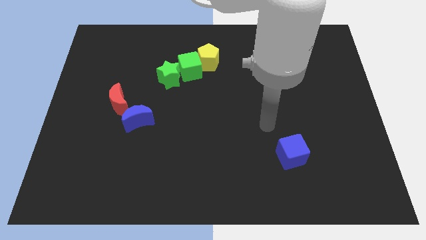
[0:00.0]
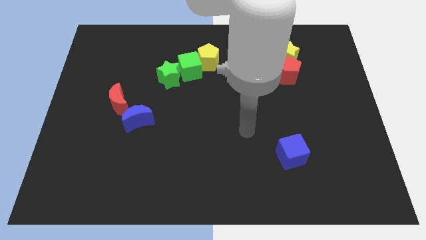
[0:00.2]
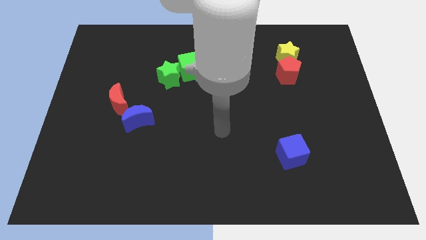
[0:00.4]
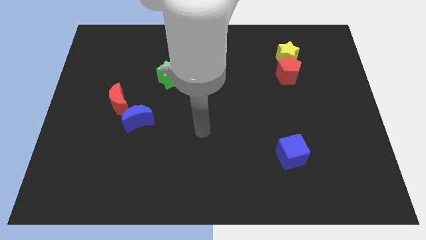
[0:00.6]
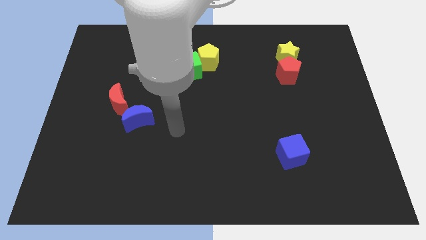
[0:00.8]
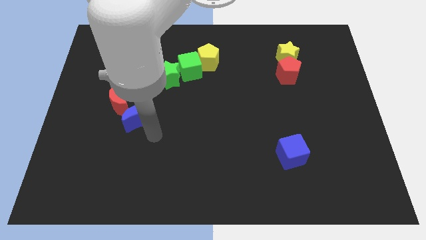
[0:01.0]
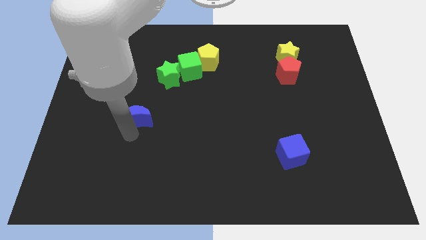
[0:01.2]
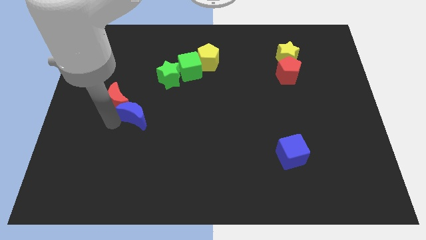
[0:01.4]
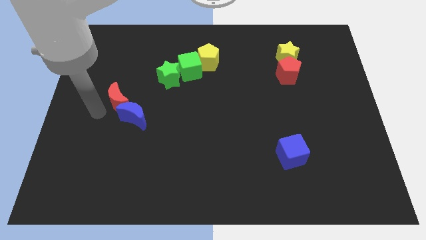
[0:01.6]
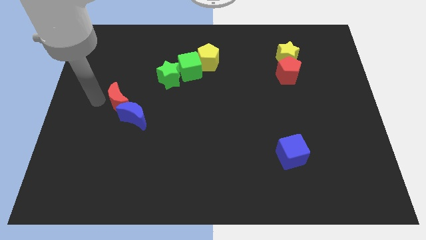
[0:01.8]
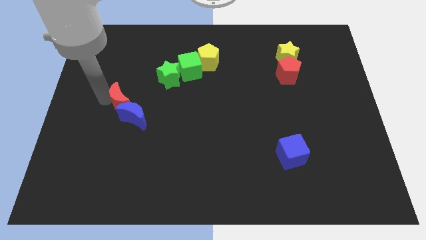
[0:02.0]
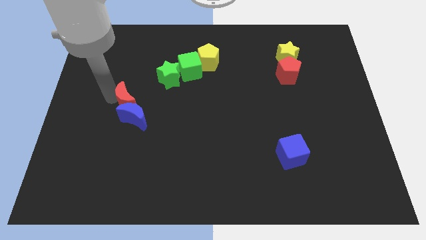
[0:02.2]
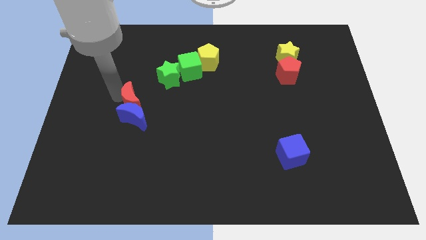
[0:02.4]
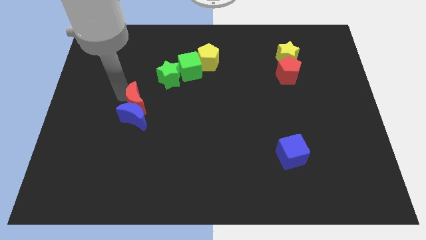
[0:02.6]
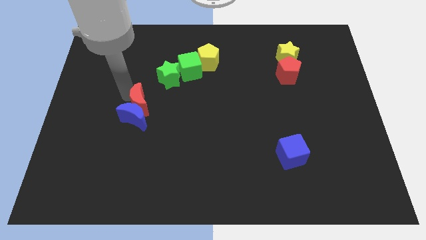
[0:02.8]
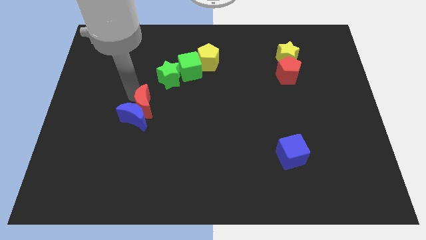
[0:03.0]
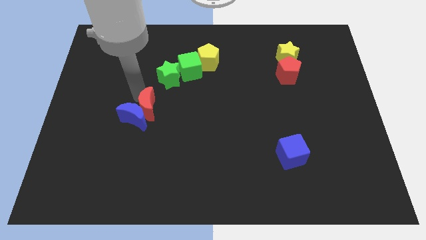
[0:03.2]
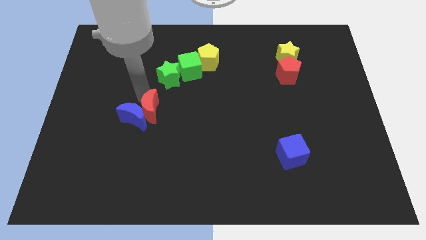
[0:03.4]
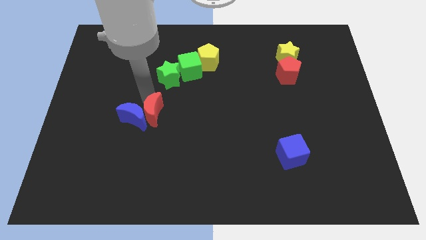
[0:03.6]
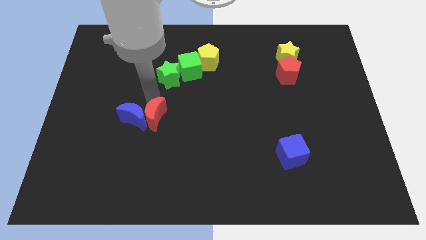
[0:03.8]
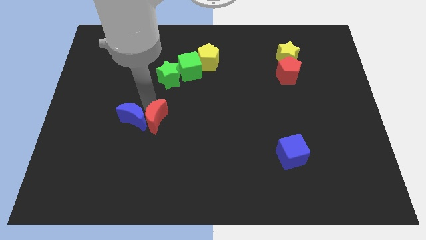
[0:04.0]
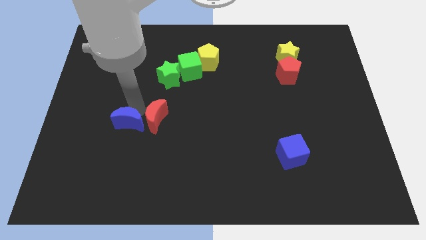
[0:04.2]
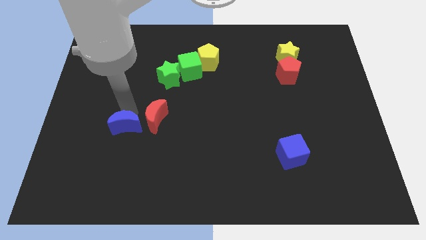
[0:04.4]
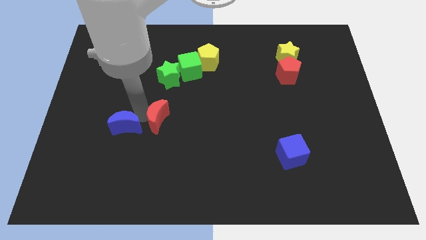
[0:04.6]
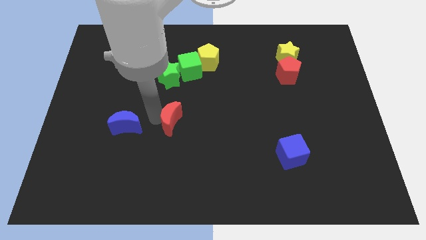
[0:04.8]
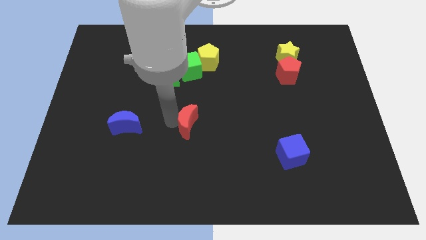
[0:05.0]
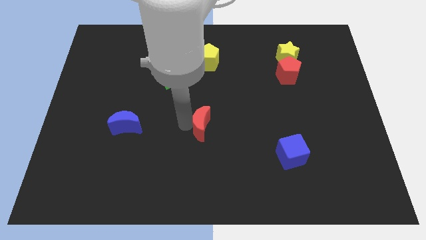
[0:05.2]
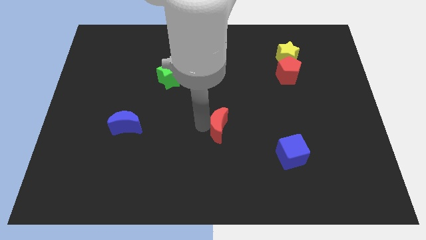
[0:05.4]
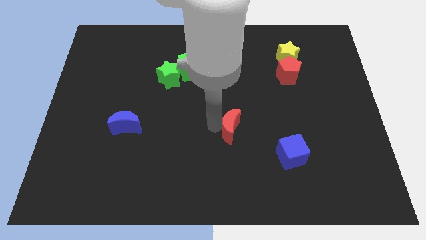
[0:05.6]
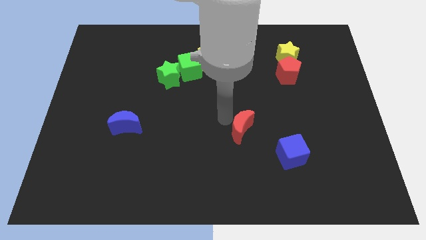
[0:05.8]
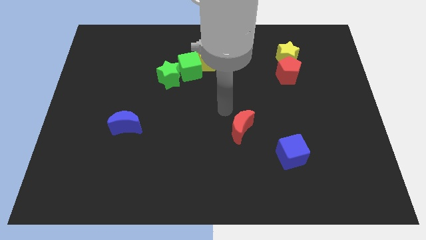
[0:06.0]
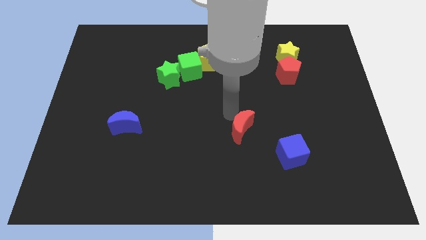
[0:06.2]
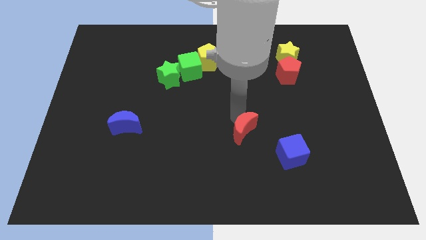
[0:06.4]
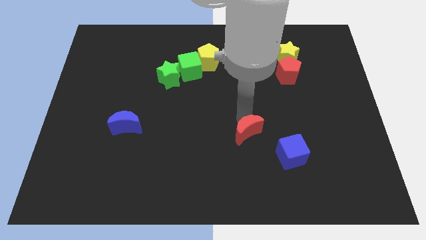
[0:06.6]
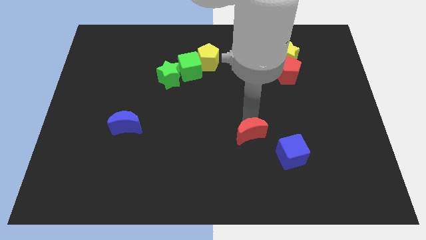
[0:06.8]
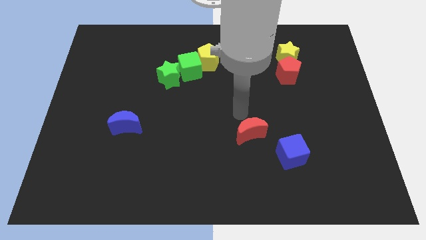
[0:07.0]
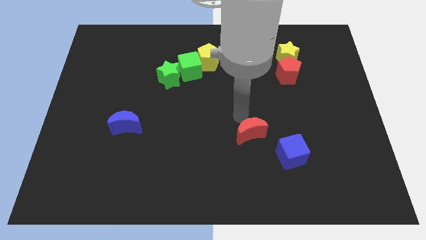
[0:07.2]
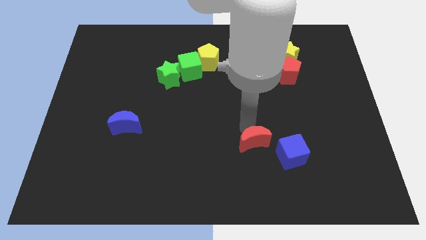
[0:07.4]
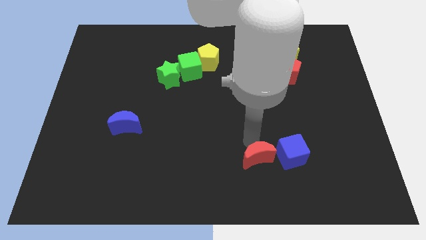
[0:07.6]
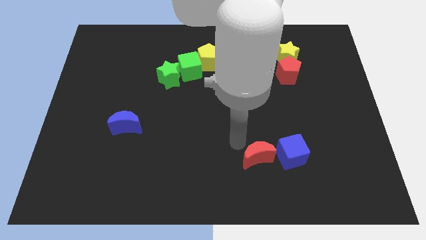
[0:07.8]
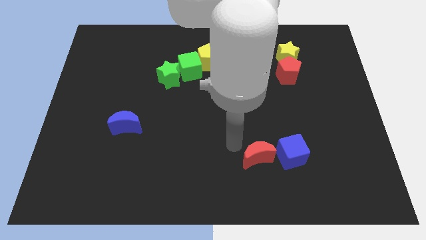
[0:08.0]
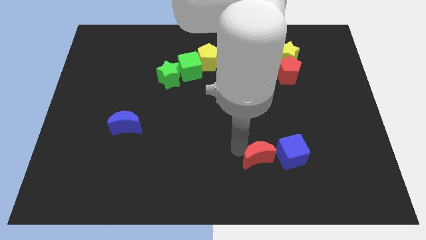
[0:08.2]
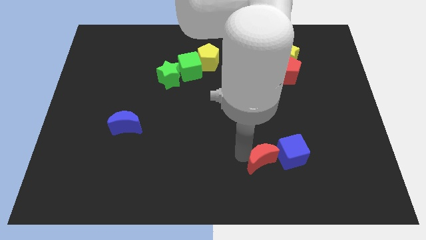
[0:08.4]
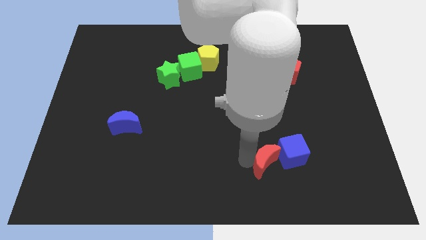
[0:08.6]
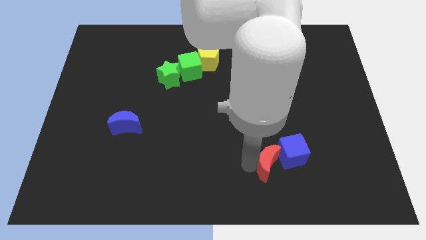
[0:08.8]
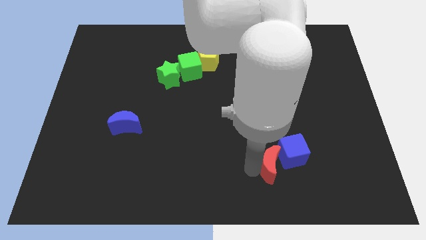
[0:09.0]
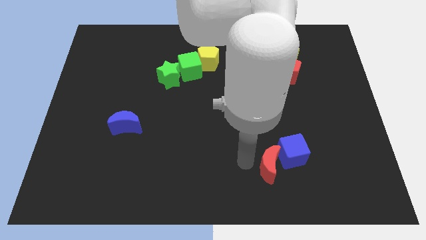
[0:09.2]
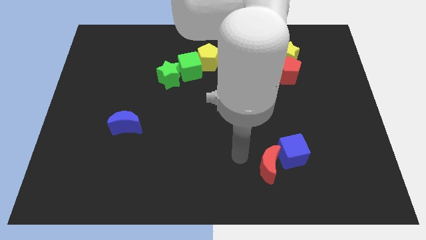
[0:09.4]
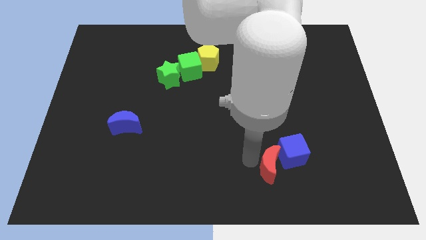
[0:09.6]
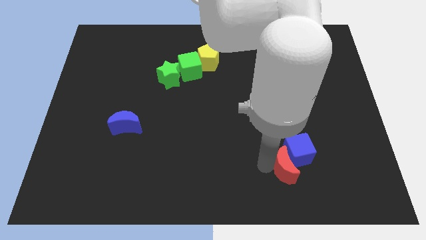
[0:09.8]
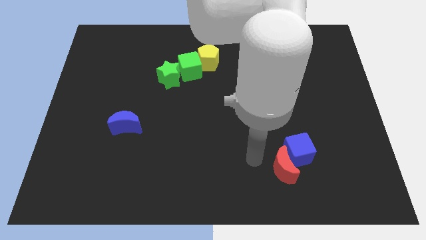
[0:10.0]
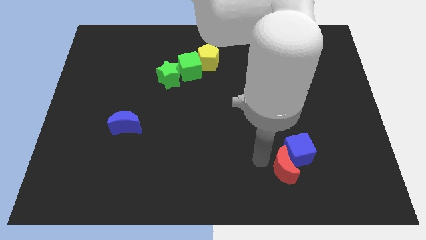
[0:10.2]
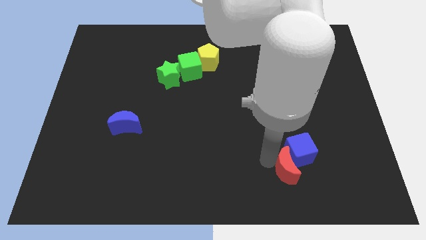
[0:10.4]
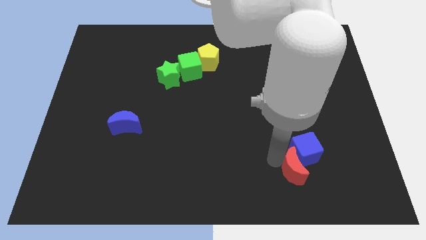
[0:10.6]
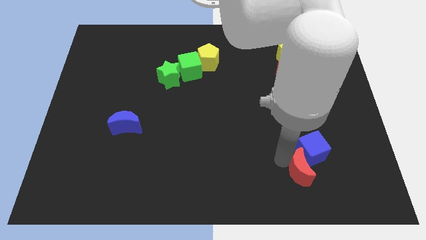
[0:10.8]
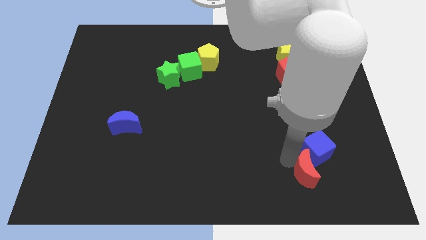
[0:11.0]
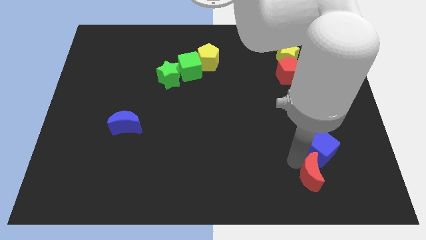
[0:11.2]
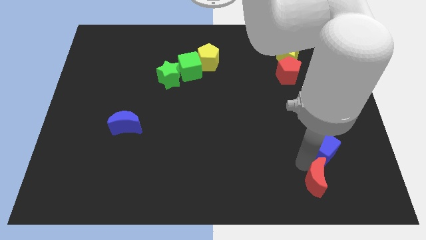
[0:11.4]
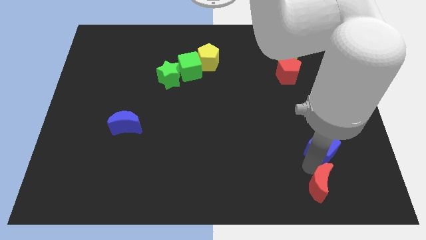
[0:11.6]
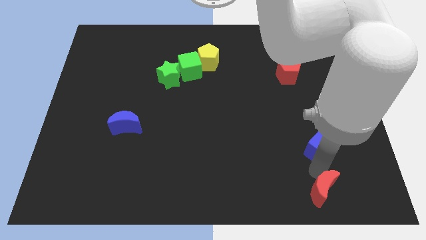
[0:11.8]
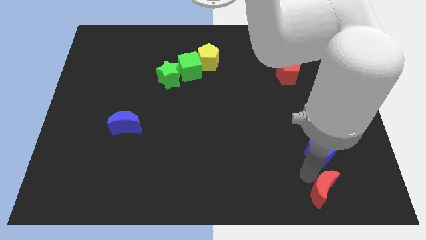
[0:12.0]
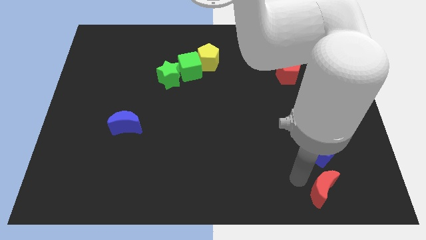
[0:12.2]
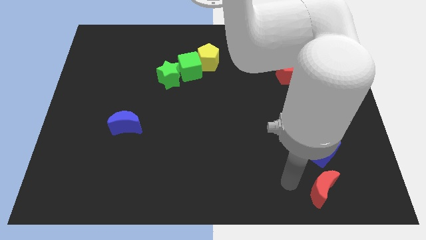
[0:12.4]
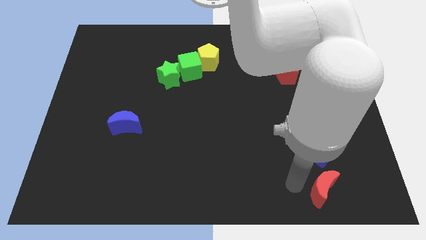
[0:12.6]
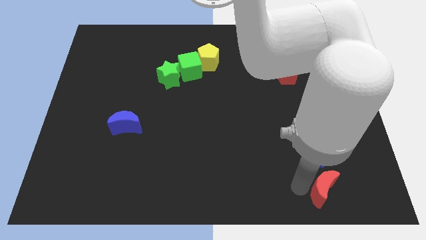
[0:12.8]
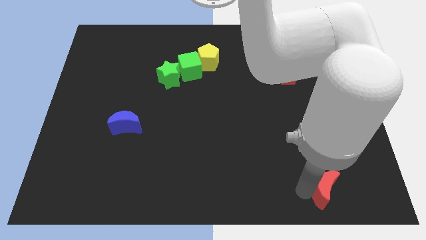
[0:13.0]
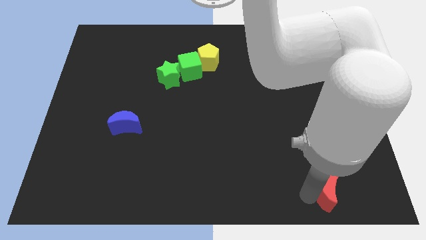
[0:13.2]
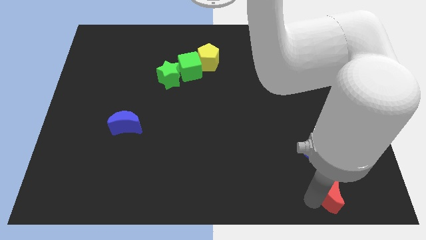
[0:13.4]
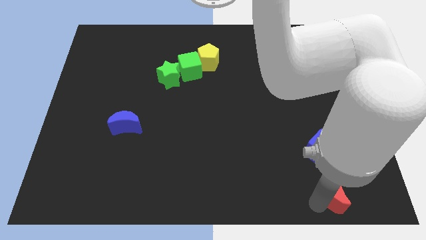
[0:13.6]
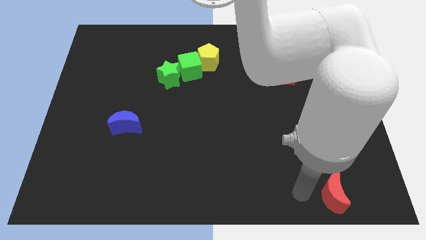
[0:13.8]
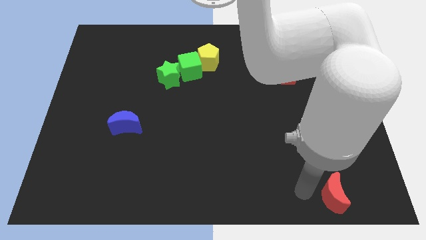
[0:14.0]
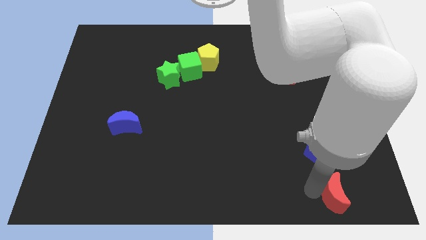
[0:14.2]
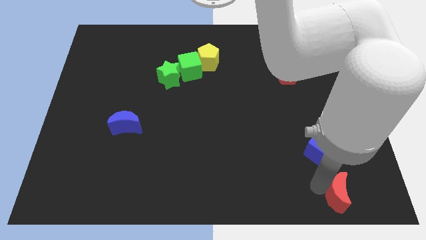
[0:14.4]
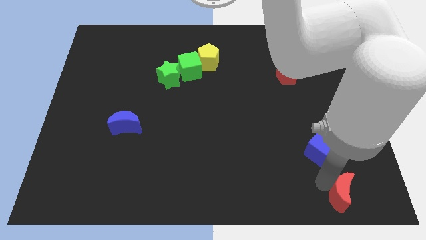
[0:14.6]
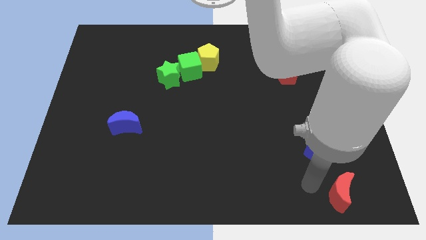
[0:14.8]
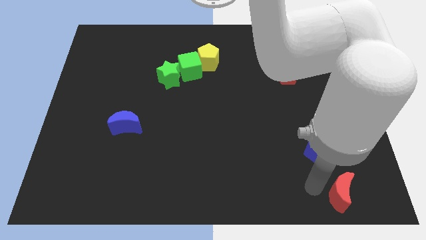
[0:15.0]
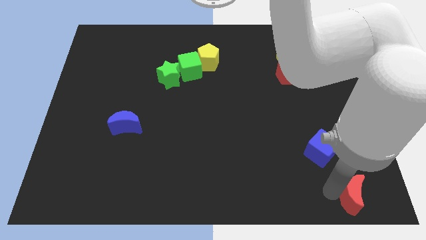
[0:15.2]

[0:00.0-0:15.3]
push the red moon to the bottom right corner
